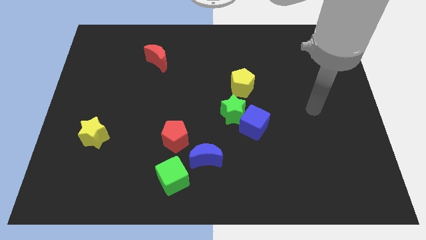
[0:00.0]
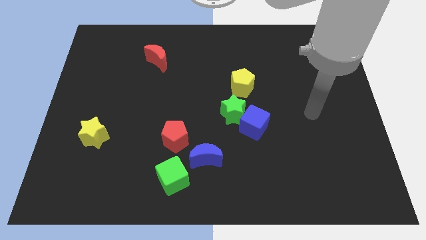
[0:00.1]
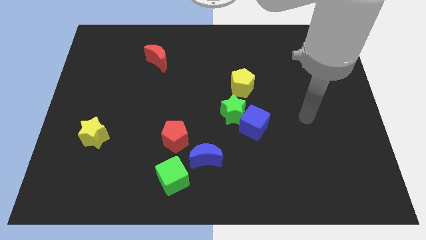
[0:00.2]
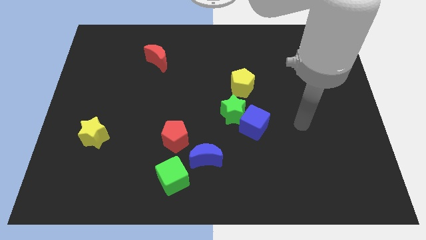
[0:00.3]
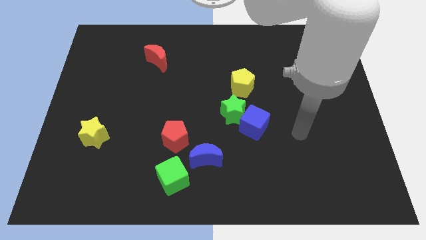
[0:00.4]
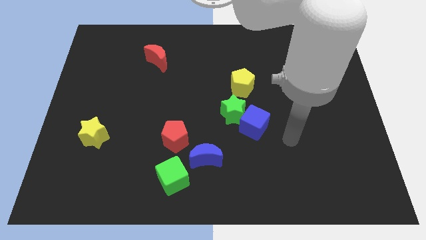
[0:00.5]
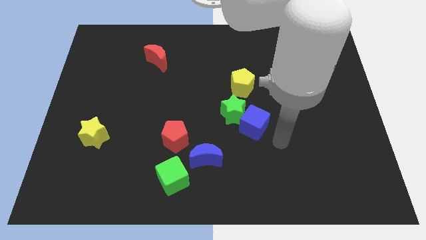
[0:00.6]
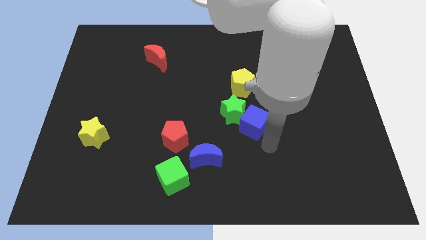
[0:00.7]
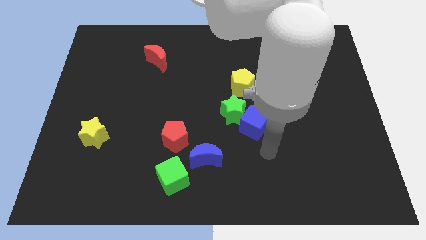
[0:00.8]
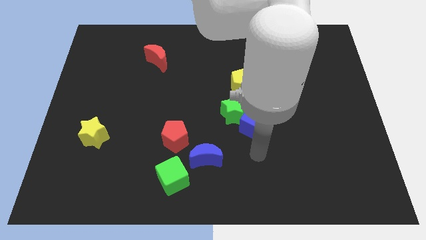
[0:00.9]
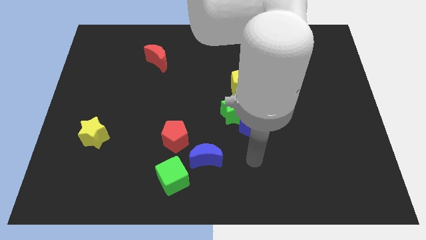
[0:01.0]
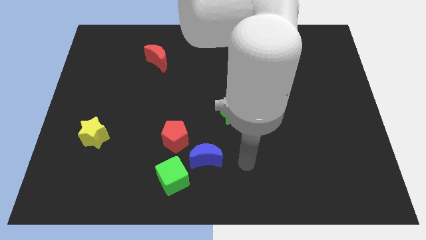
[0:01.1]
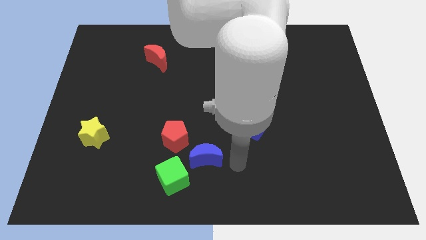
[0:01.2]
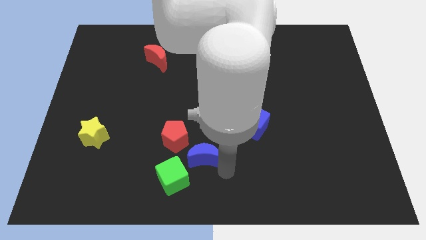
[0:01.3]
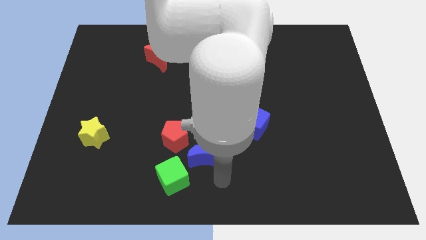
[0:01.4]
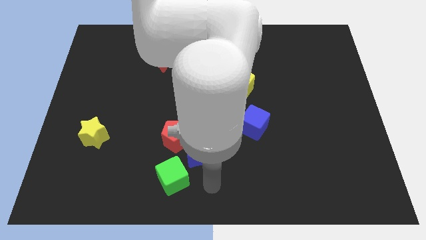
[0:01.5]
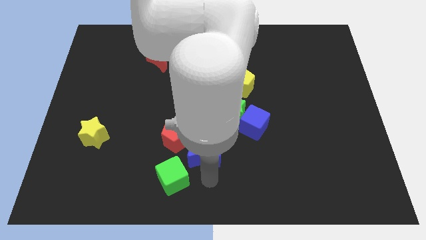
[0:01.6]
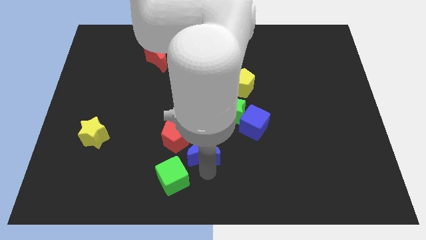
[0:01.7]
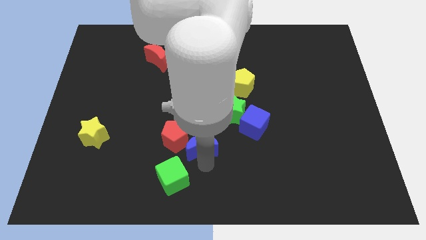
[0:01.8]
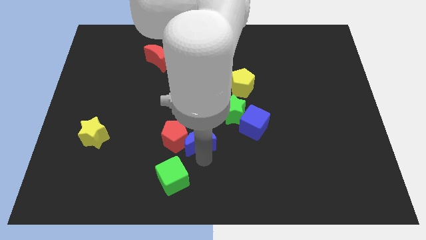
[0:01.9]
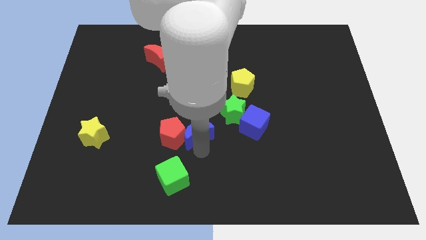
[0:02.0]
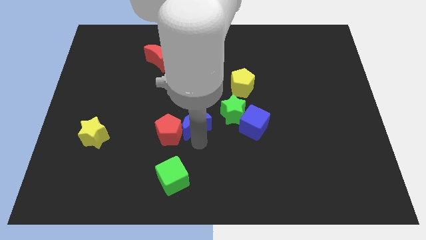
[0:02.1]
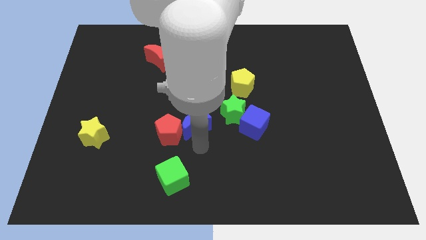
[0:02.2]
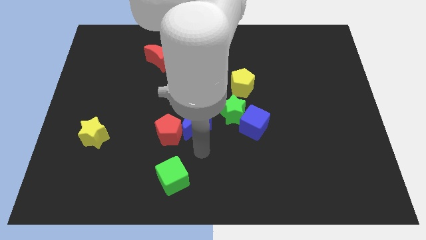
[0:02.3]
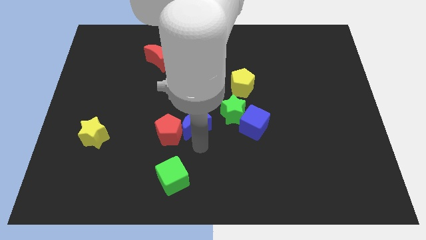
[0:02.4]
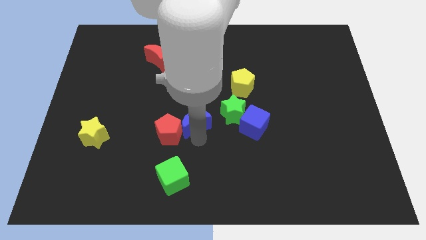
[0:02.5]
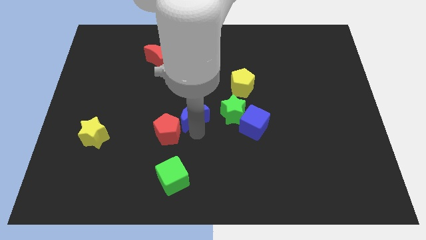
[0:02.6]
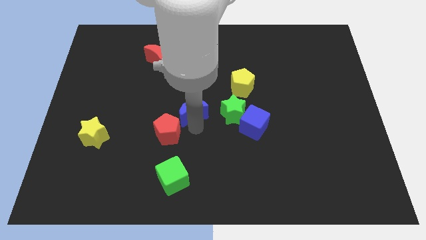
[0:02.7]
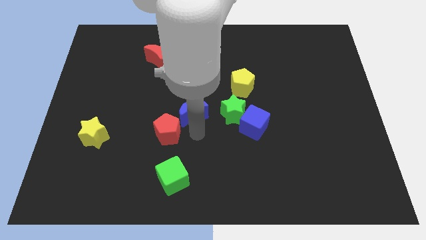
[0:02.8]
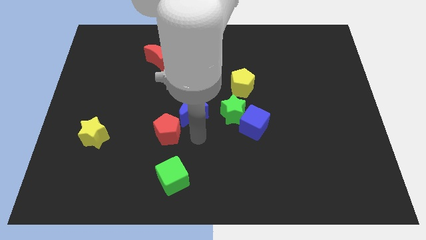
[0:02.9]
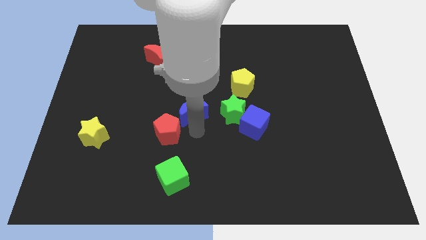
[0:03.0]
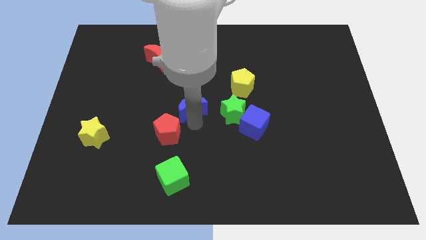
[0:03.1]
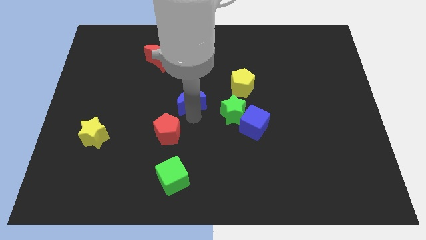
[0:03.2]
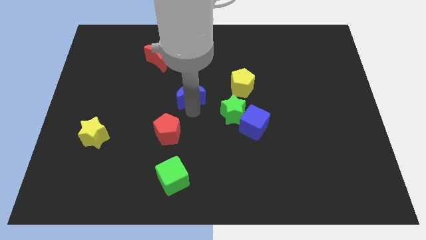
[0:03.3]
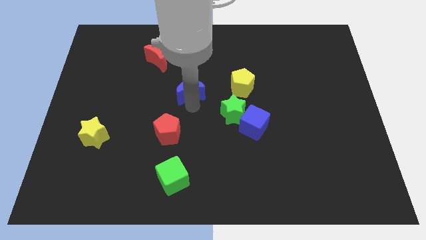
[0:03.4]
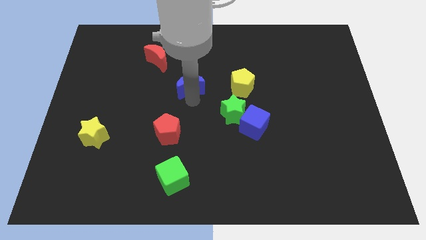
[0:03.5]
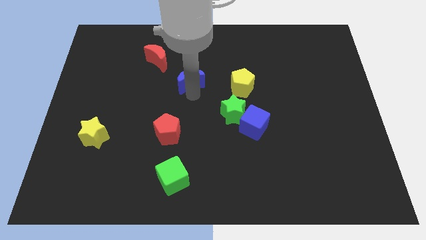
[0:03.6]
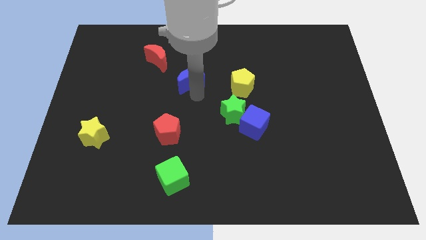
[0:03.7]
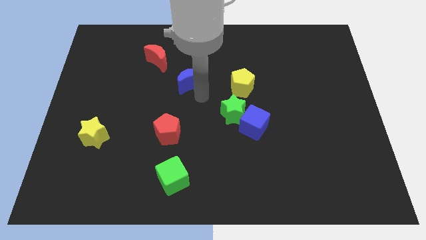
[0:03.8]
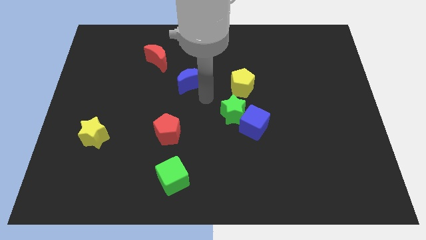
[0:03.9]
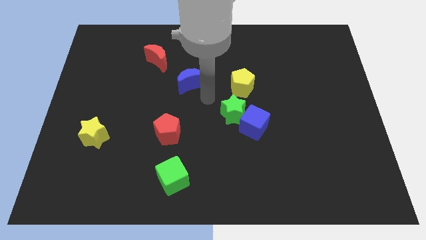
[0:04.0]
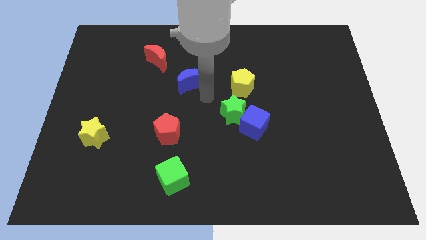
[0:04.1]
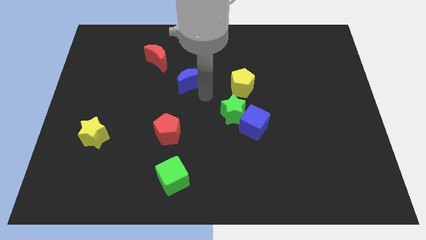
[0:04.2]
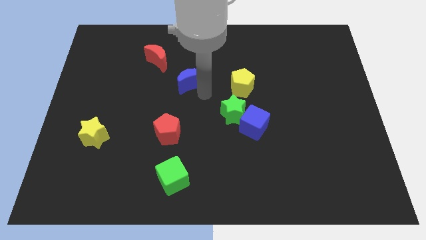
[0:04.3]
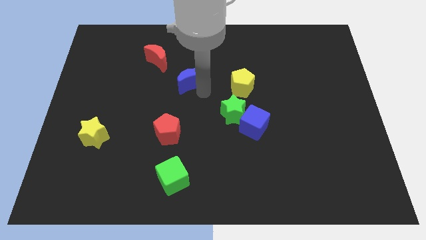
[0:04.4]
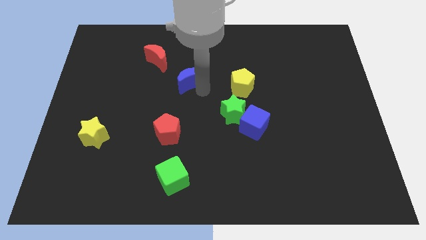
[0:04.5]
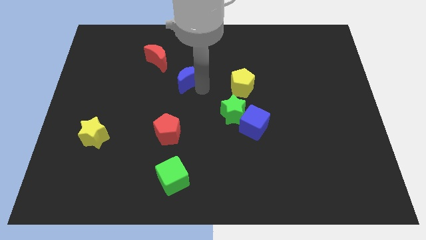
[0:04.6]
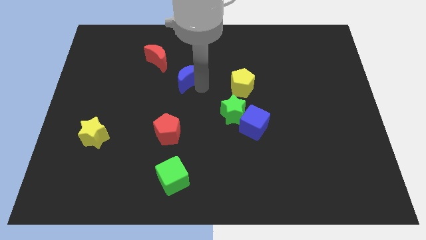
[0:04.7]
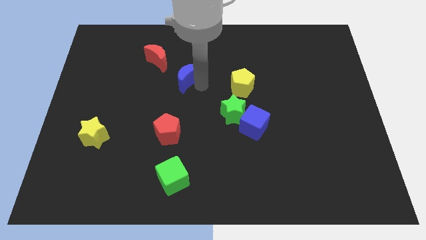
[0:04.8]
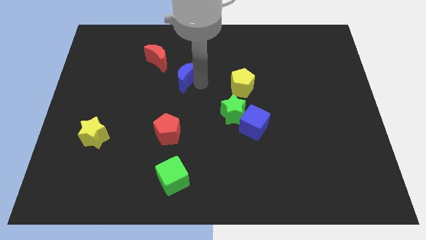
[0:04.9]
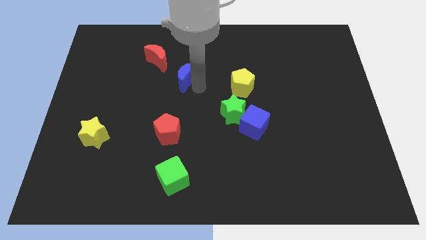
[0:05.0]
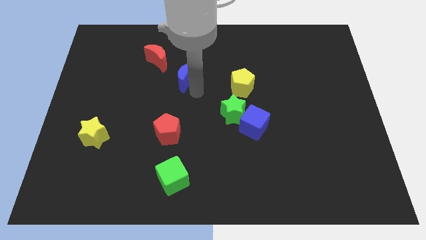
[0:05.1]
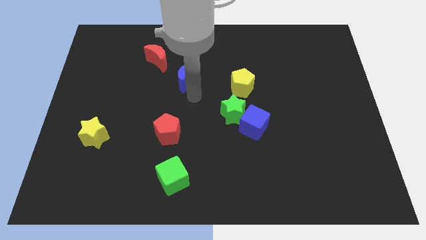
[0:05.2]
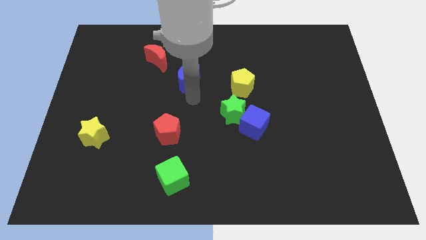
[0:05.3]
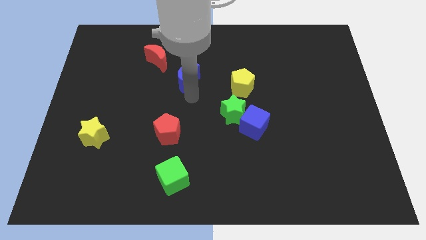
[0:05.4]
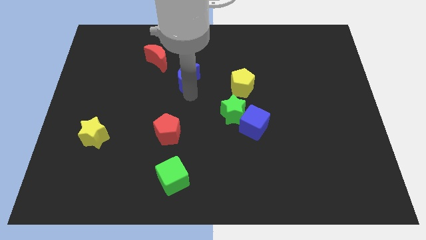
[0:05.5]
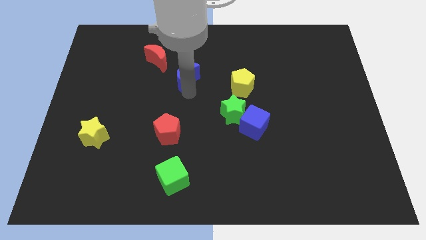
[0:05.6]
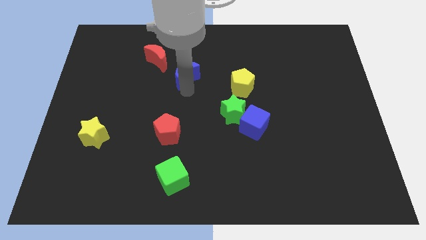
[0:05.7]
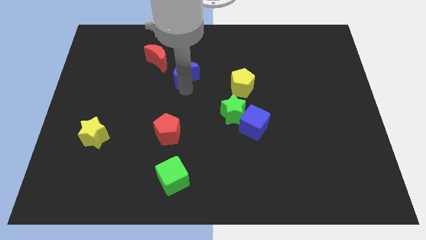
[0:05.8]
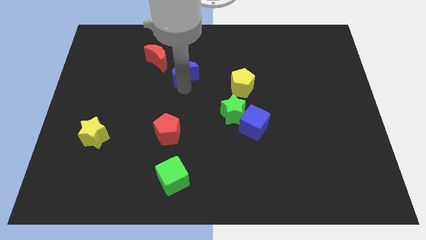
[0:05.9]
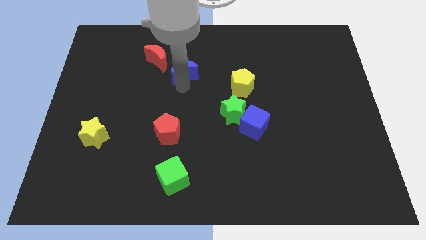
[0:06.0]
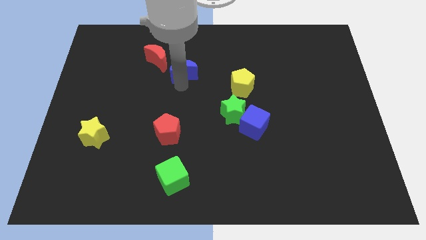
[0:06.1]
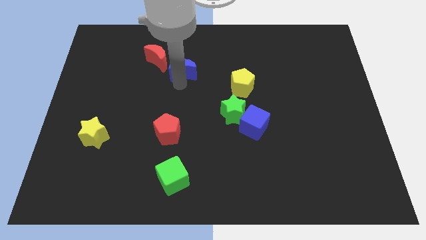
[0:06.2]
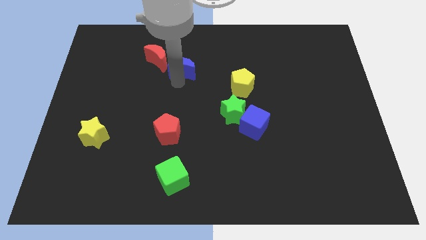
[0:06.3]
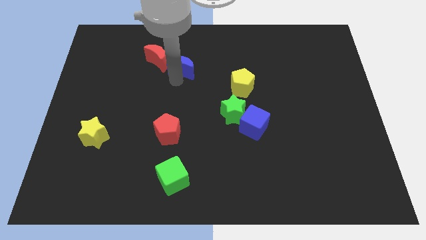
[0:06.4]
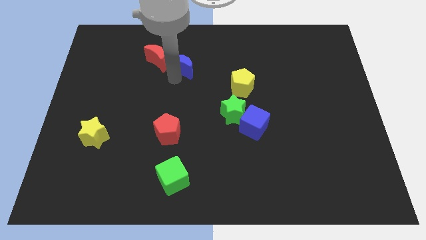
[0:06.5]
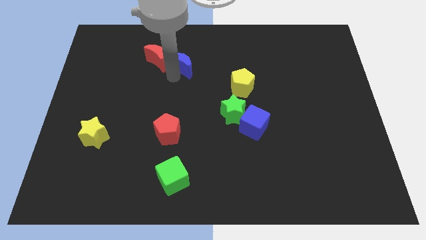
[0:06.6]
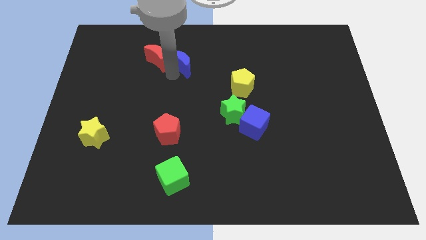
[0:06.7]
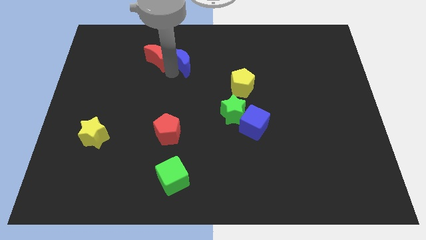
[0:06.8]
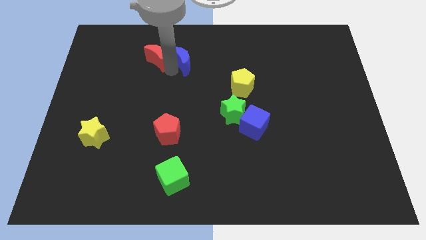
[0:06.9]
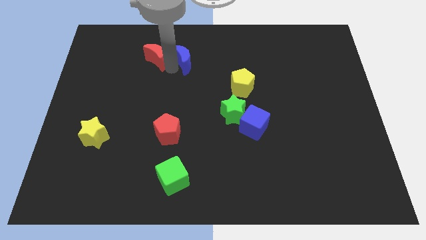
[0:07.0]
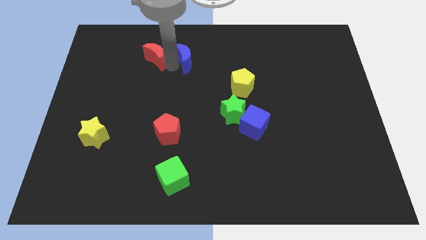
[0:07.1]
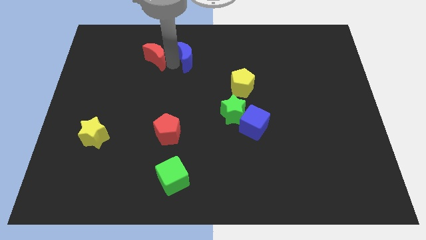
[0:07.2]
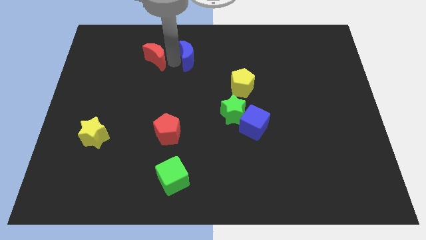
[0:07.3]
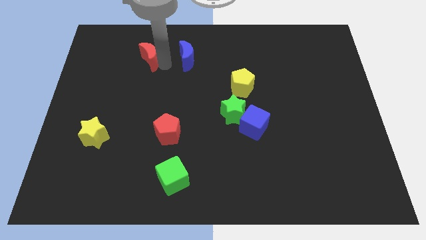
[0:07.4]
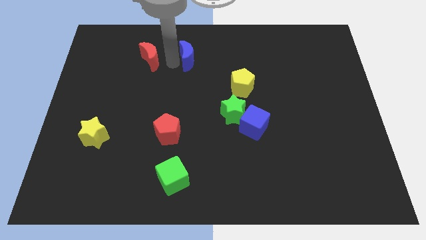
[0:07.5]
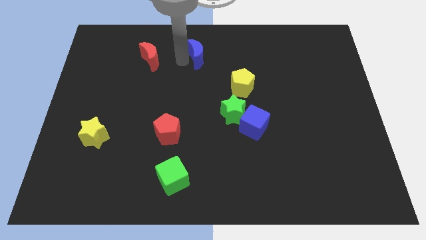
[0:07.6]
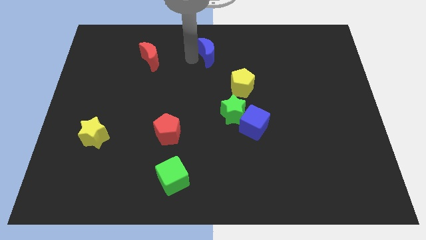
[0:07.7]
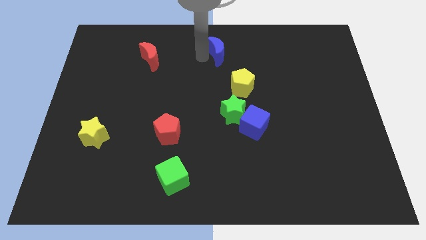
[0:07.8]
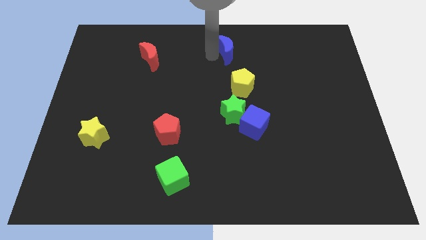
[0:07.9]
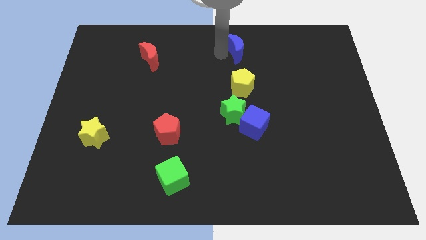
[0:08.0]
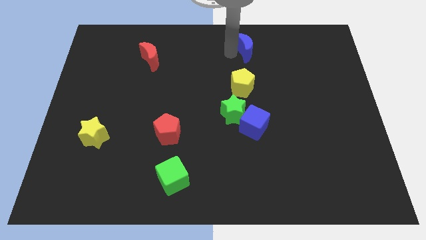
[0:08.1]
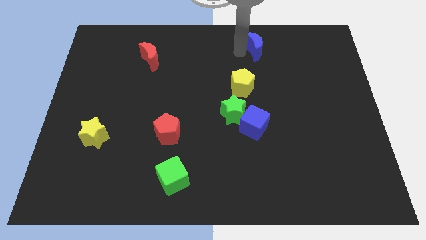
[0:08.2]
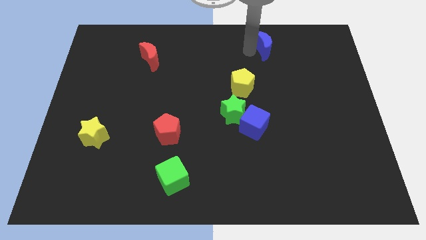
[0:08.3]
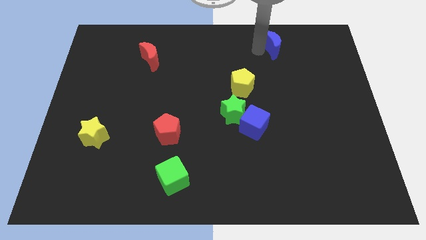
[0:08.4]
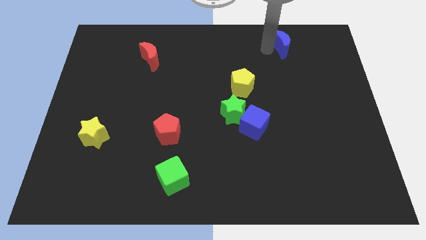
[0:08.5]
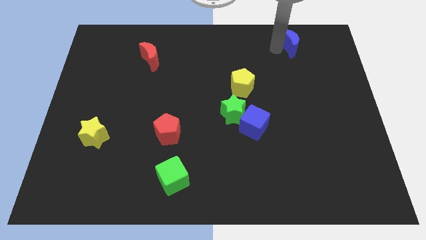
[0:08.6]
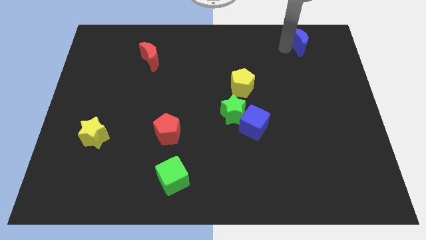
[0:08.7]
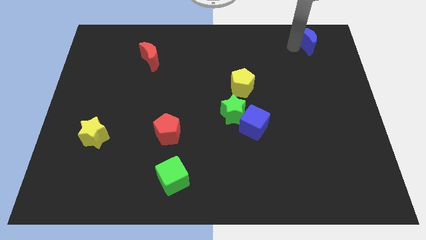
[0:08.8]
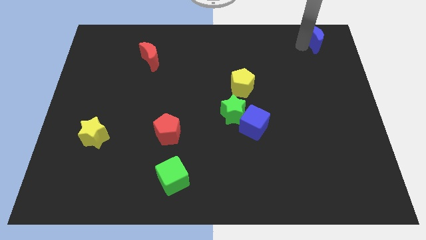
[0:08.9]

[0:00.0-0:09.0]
put the blue moon to the upper right corner
